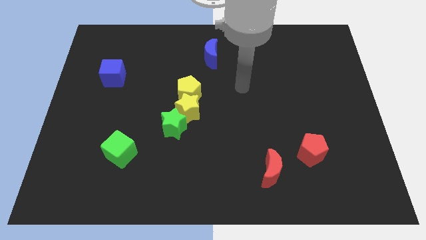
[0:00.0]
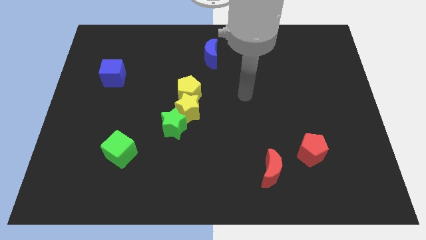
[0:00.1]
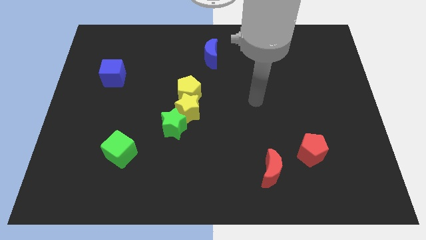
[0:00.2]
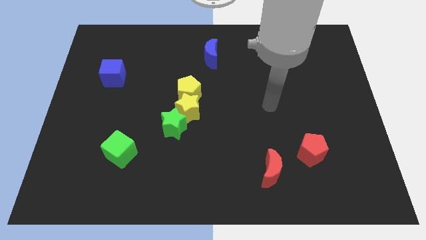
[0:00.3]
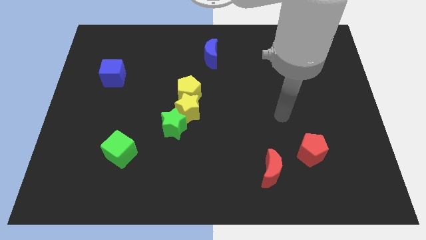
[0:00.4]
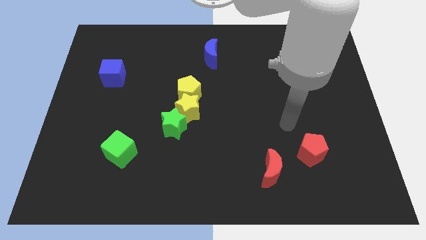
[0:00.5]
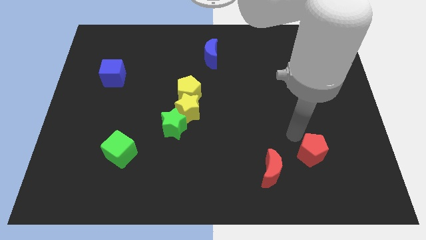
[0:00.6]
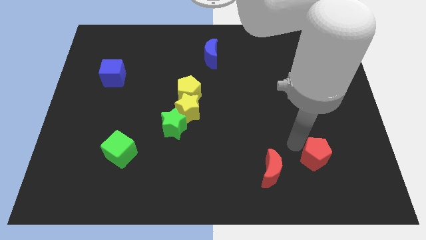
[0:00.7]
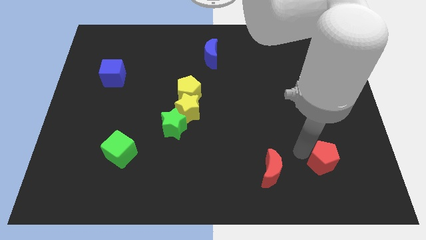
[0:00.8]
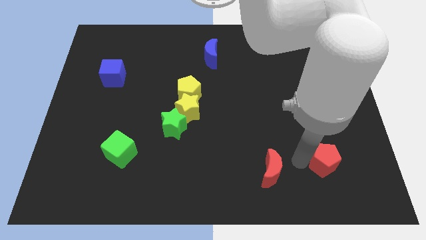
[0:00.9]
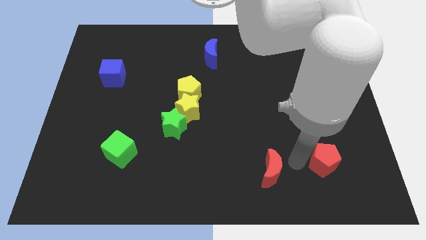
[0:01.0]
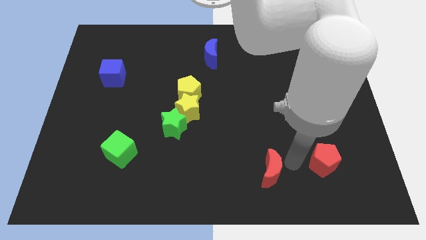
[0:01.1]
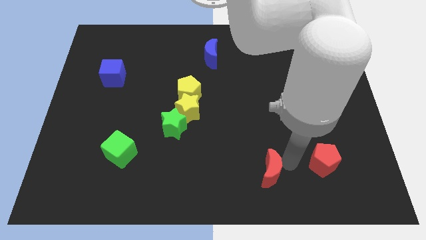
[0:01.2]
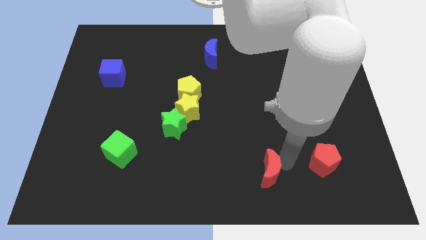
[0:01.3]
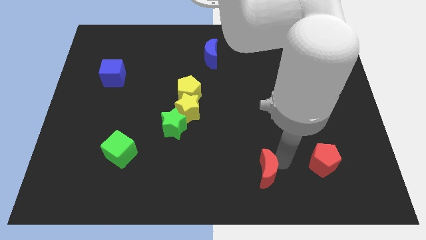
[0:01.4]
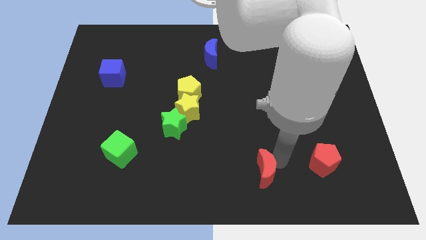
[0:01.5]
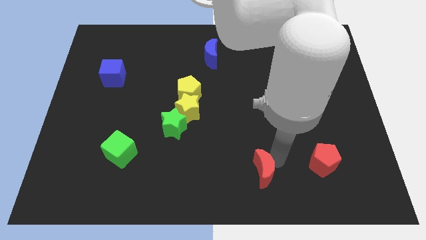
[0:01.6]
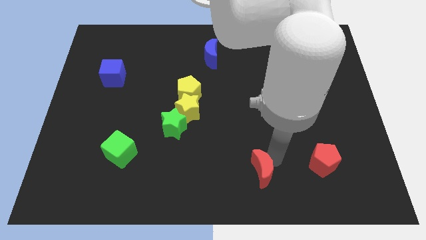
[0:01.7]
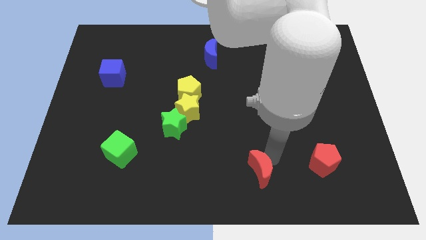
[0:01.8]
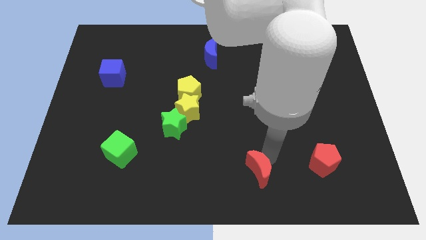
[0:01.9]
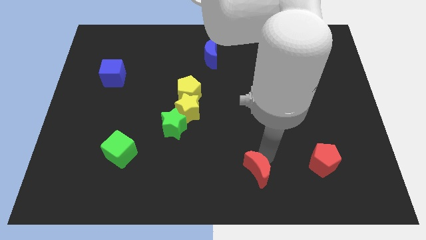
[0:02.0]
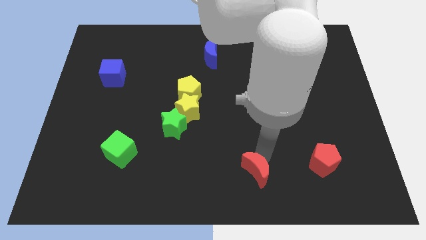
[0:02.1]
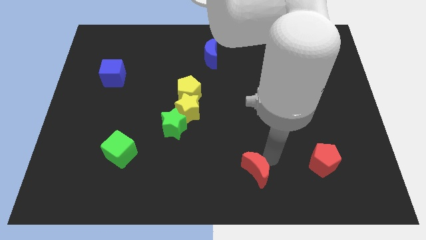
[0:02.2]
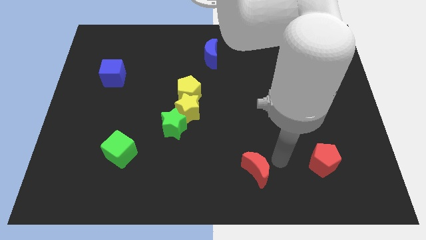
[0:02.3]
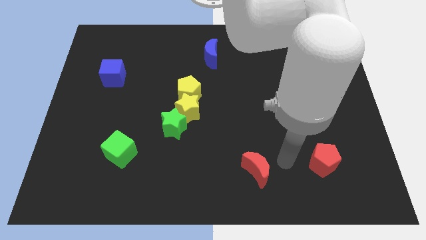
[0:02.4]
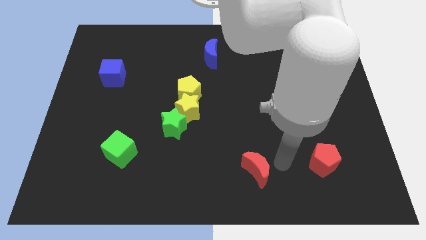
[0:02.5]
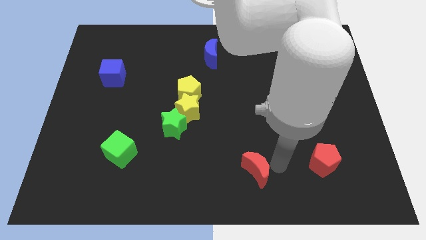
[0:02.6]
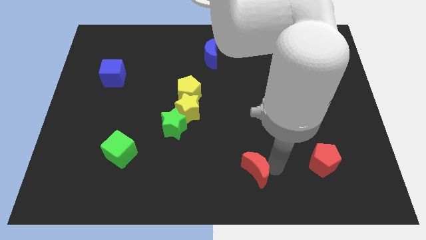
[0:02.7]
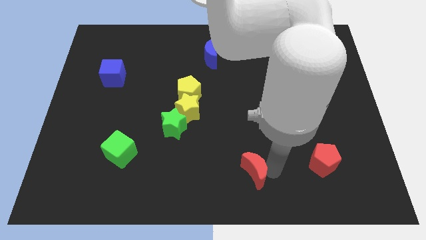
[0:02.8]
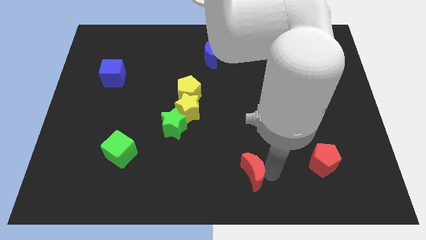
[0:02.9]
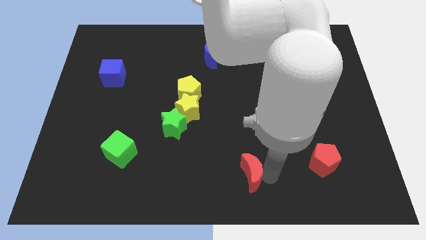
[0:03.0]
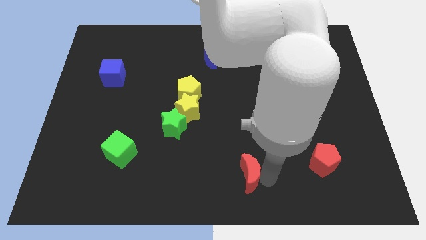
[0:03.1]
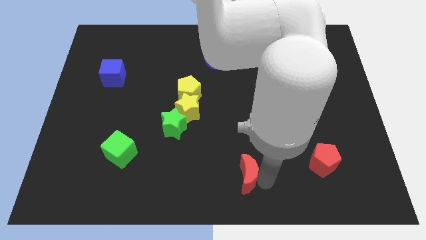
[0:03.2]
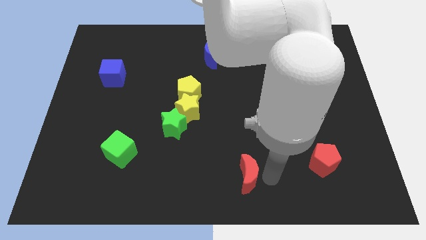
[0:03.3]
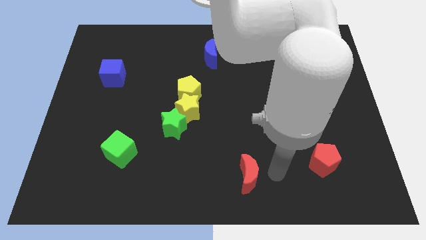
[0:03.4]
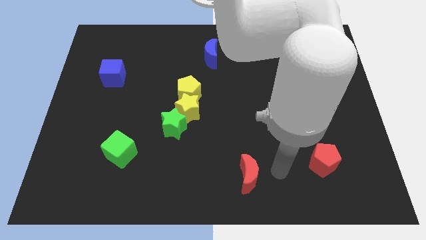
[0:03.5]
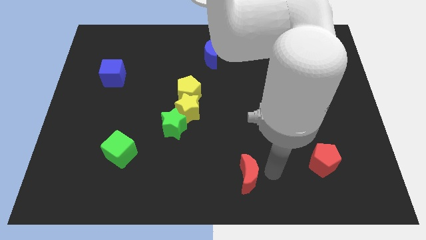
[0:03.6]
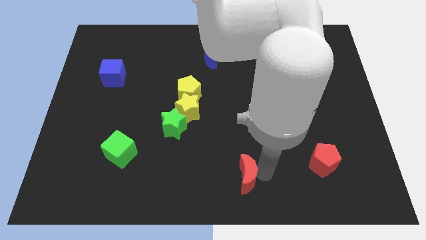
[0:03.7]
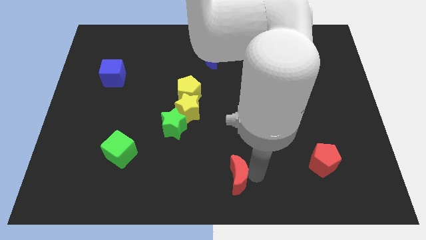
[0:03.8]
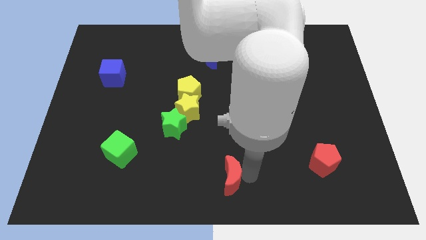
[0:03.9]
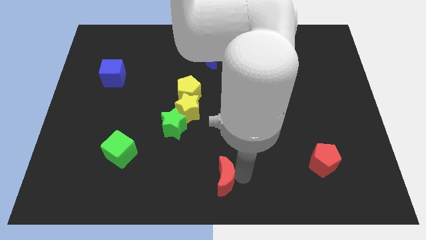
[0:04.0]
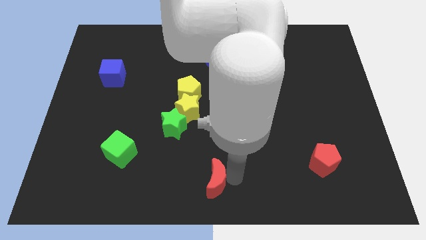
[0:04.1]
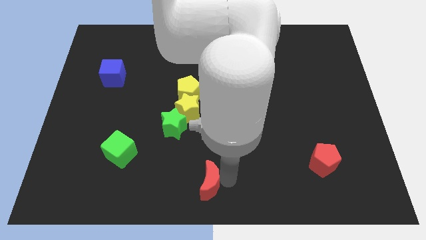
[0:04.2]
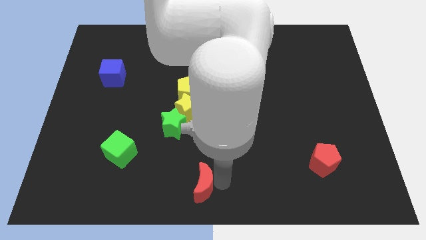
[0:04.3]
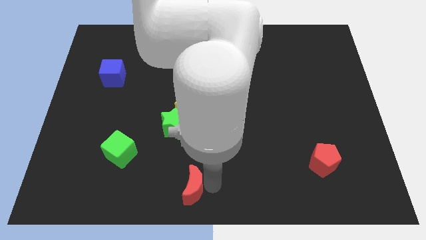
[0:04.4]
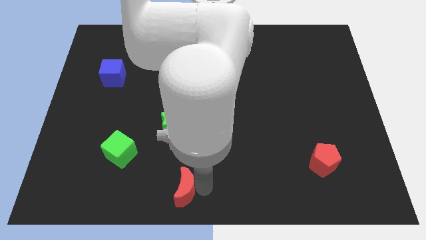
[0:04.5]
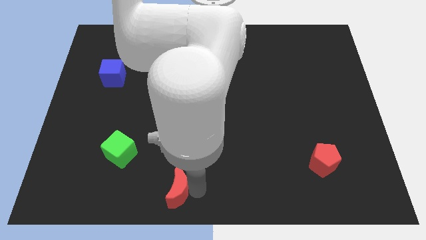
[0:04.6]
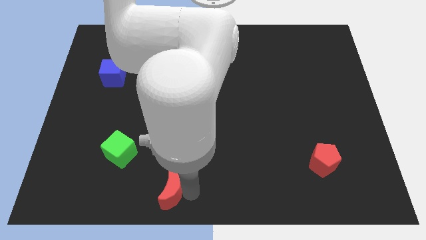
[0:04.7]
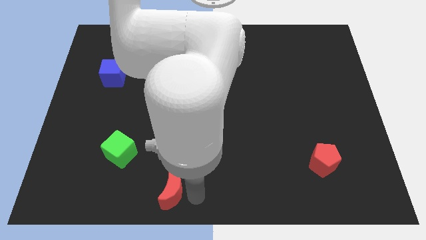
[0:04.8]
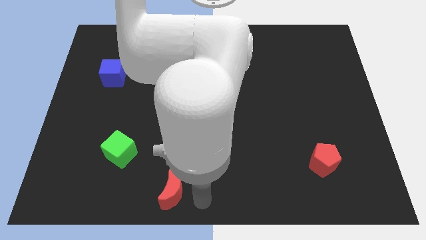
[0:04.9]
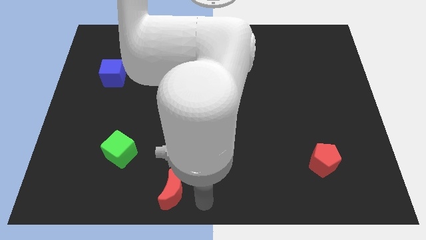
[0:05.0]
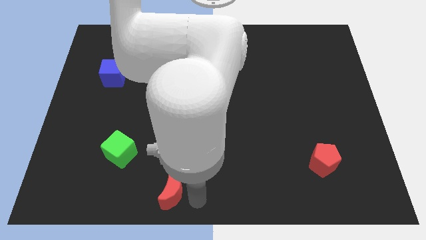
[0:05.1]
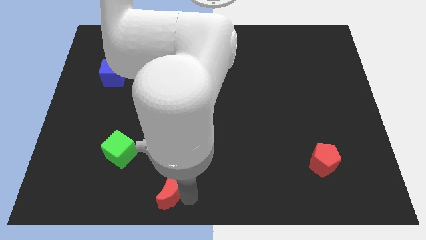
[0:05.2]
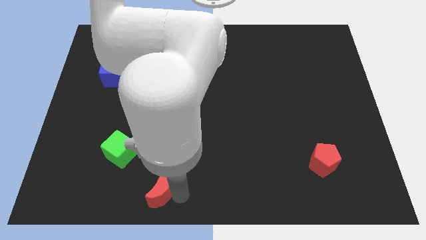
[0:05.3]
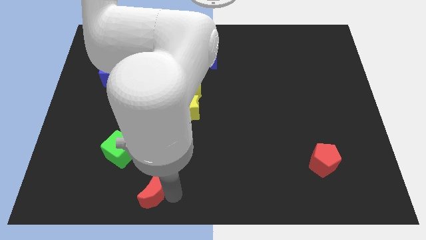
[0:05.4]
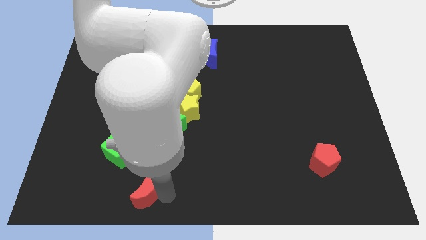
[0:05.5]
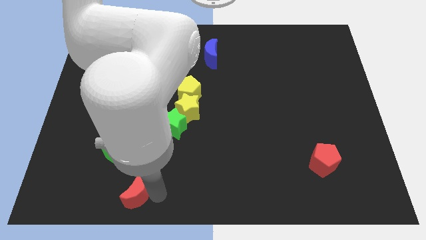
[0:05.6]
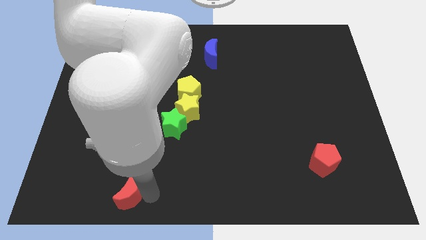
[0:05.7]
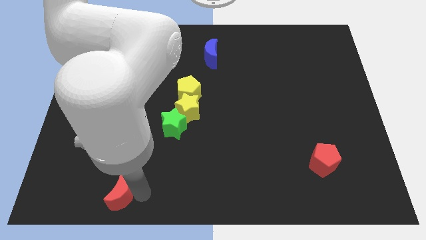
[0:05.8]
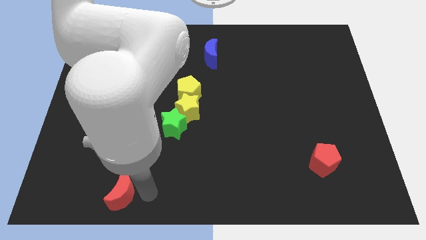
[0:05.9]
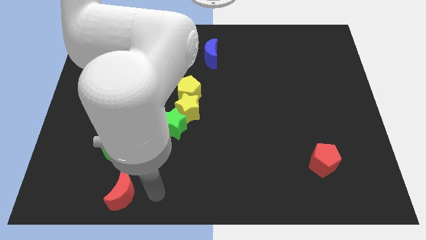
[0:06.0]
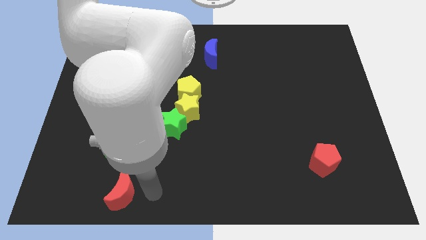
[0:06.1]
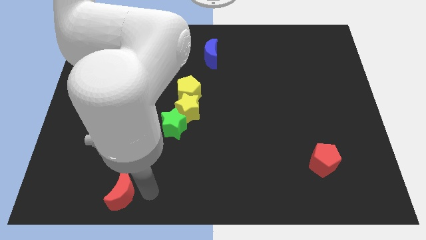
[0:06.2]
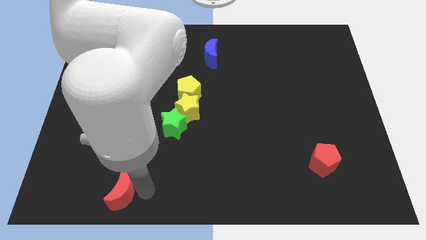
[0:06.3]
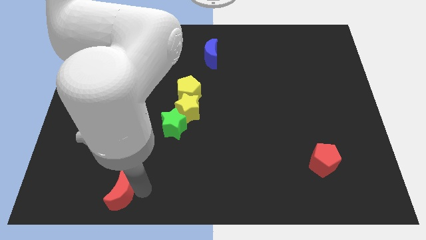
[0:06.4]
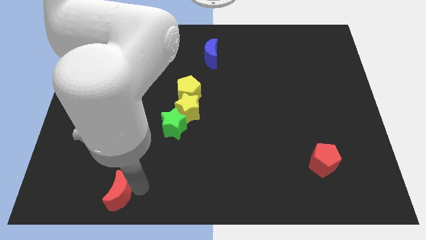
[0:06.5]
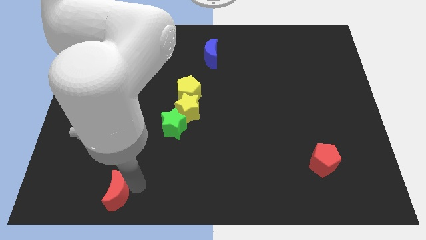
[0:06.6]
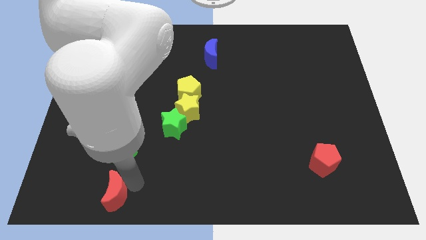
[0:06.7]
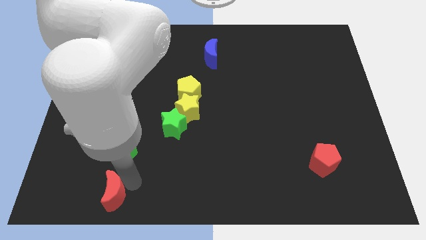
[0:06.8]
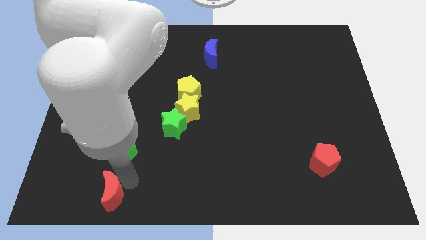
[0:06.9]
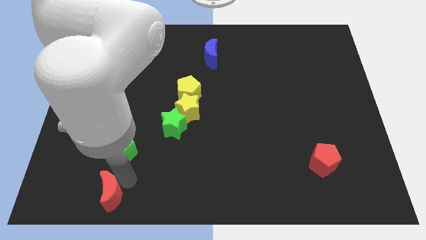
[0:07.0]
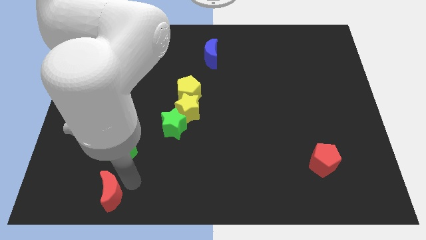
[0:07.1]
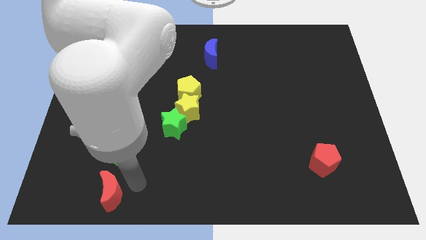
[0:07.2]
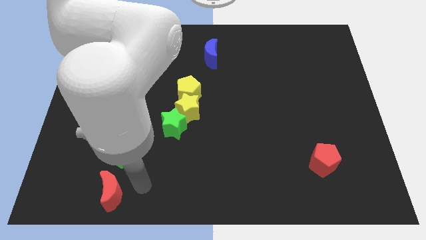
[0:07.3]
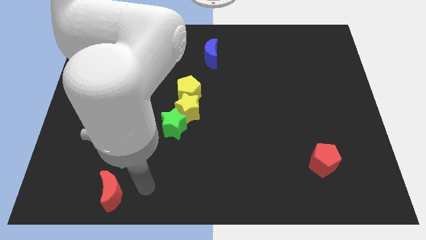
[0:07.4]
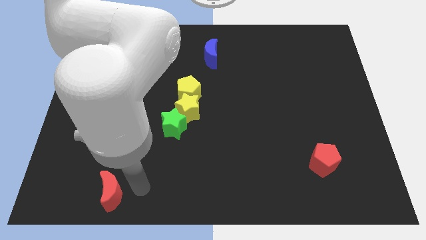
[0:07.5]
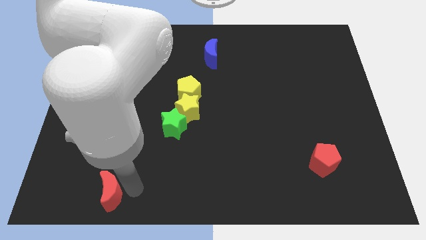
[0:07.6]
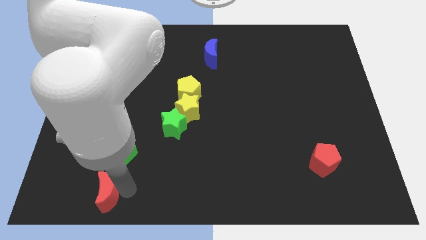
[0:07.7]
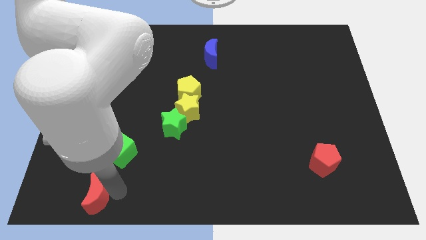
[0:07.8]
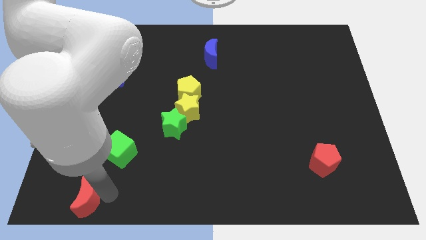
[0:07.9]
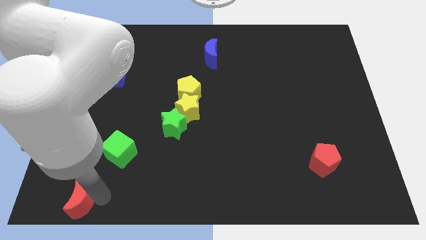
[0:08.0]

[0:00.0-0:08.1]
put the red moon to the bottom left
